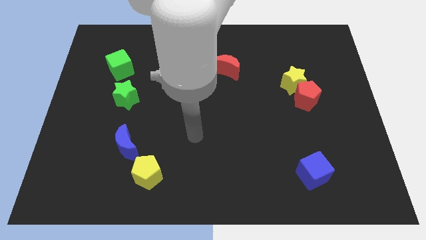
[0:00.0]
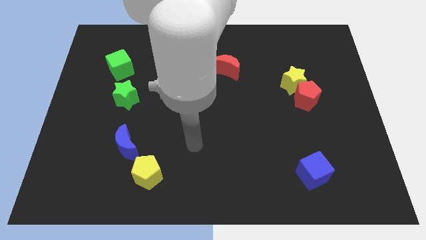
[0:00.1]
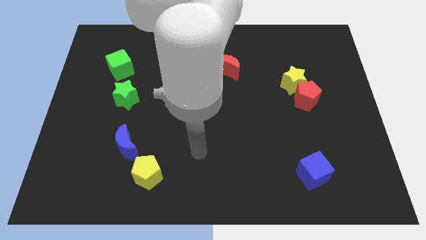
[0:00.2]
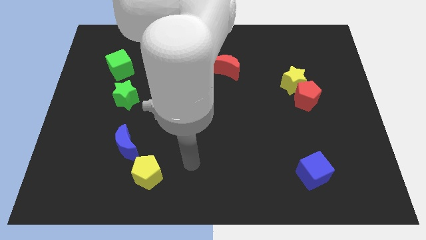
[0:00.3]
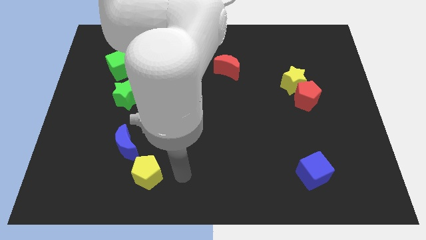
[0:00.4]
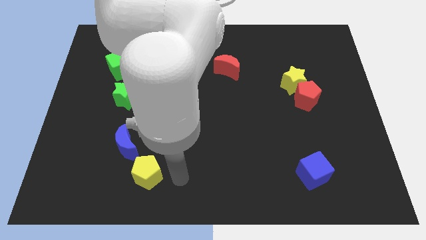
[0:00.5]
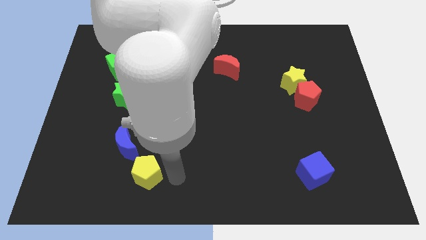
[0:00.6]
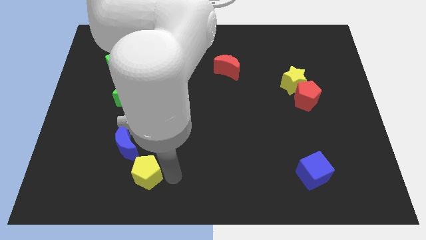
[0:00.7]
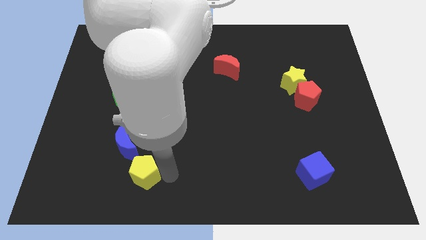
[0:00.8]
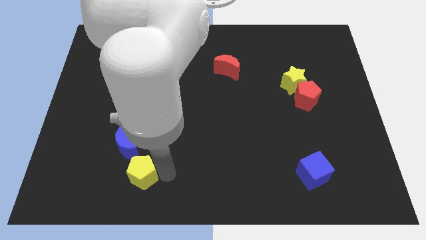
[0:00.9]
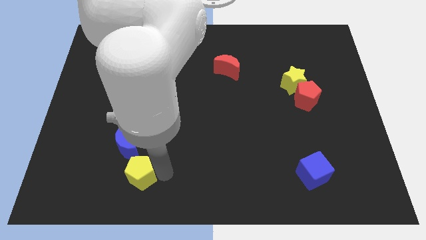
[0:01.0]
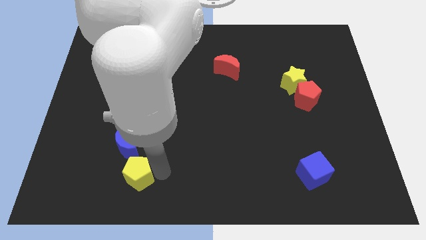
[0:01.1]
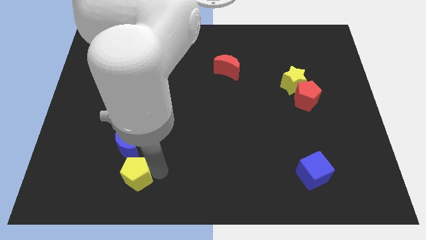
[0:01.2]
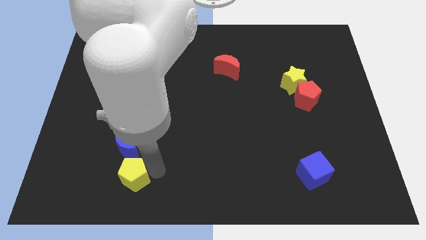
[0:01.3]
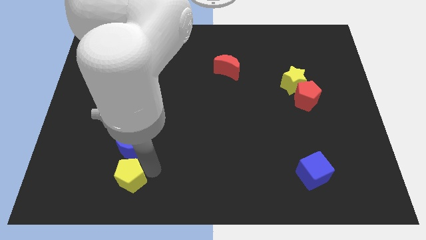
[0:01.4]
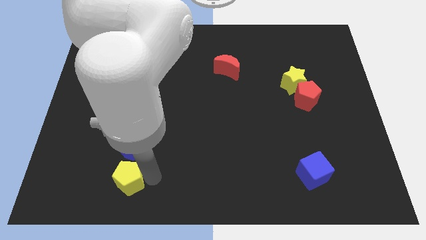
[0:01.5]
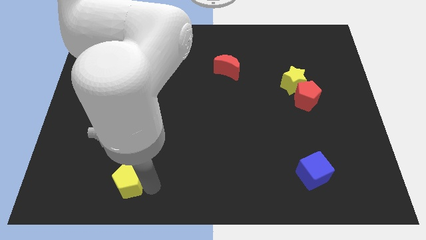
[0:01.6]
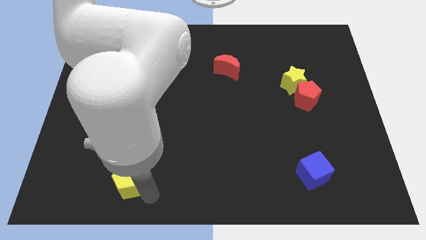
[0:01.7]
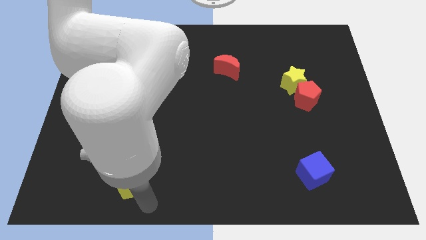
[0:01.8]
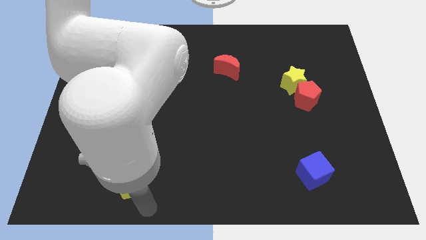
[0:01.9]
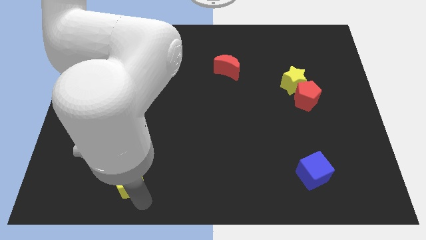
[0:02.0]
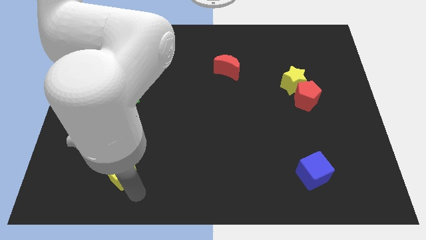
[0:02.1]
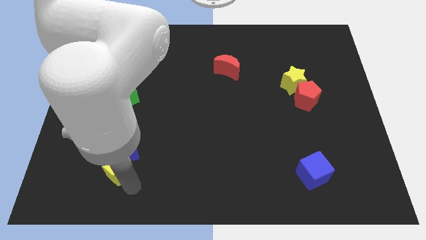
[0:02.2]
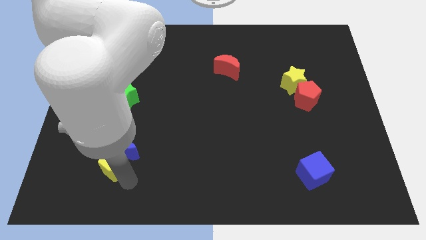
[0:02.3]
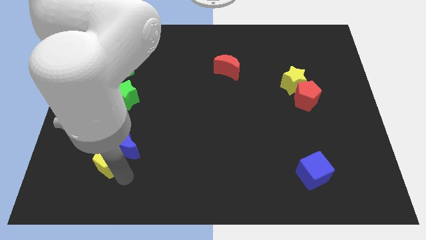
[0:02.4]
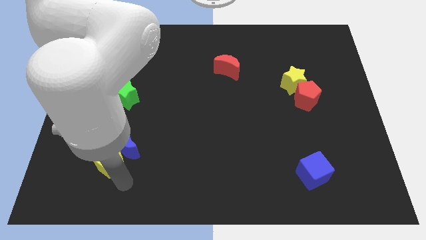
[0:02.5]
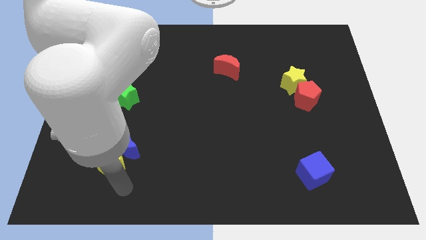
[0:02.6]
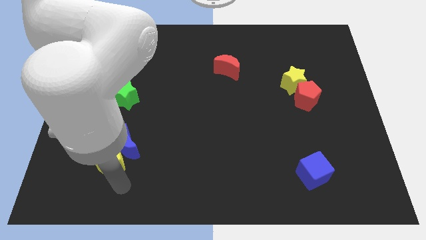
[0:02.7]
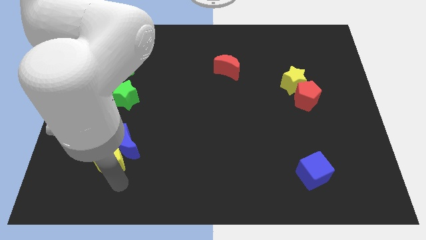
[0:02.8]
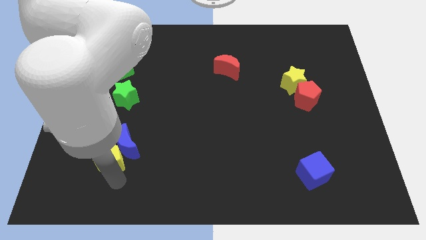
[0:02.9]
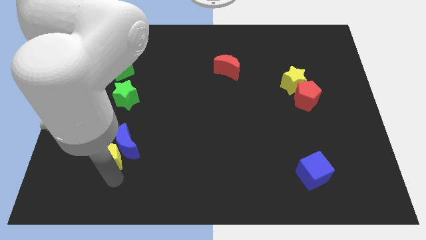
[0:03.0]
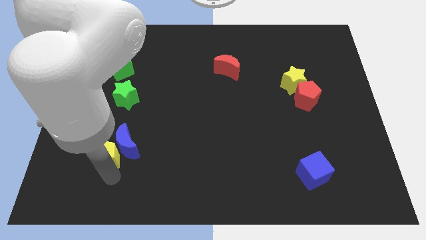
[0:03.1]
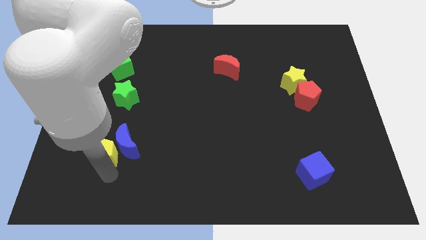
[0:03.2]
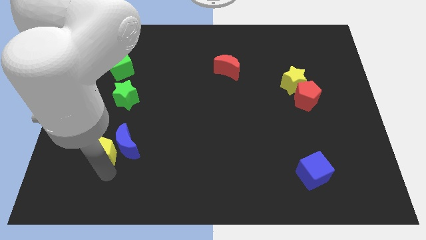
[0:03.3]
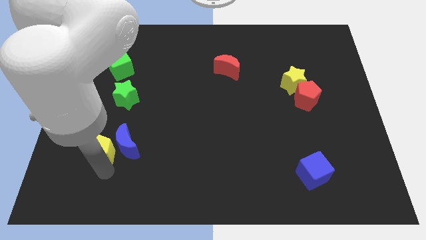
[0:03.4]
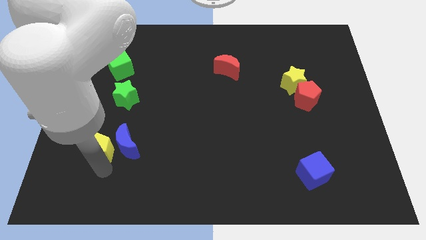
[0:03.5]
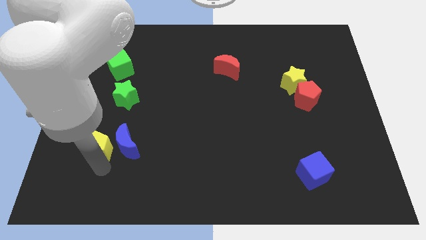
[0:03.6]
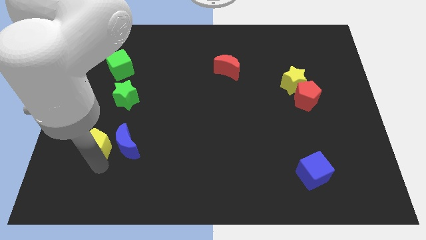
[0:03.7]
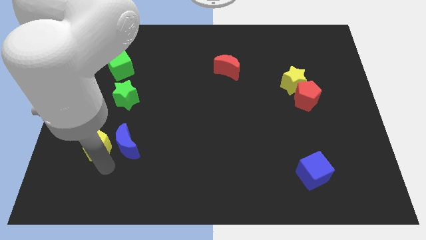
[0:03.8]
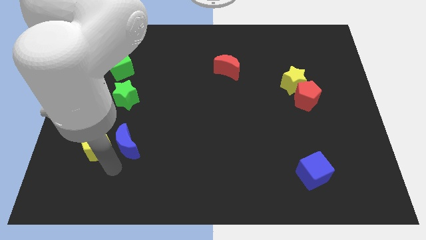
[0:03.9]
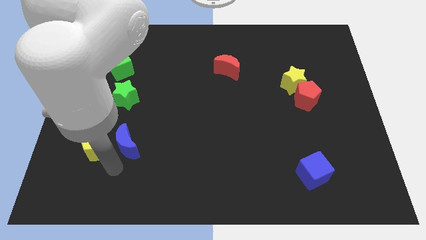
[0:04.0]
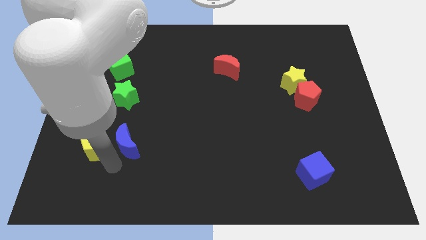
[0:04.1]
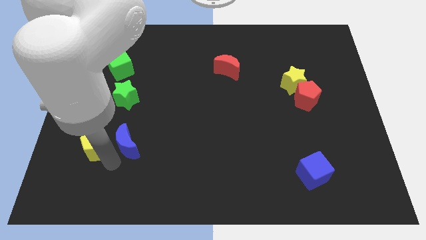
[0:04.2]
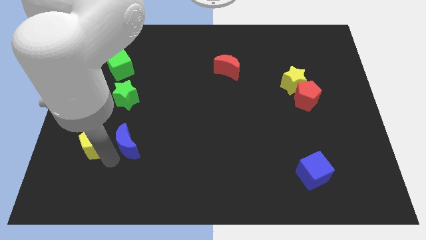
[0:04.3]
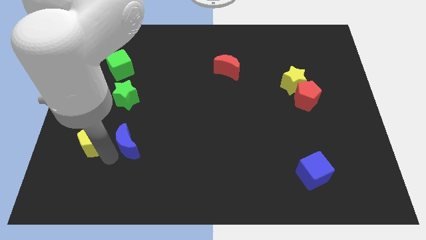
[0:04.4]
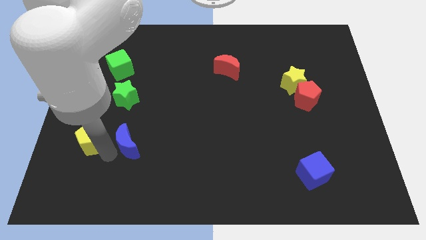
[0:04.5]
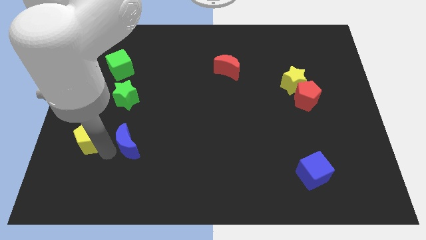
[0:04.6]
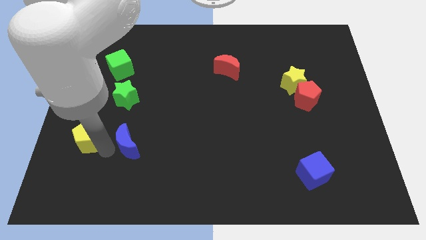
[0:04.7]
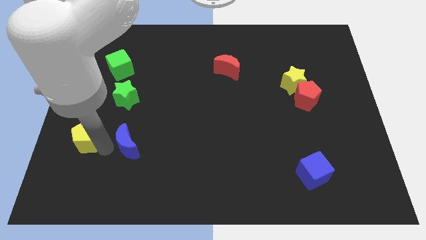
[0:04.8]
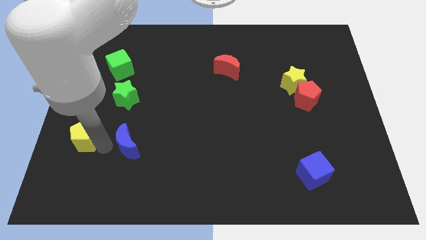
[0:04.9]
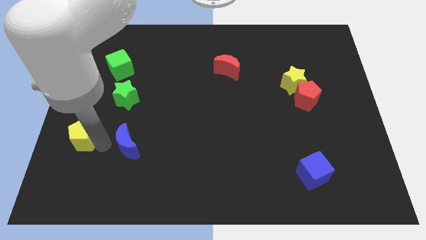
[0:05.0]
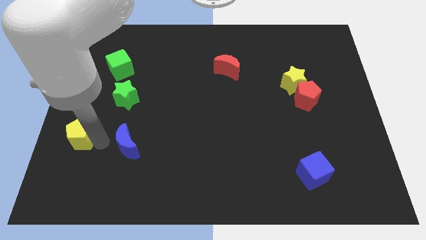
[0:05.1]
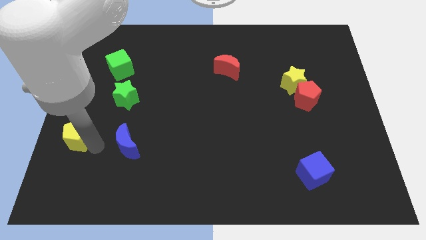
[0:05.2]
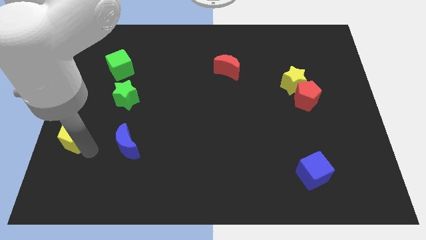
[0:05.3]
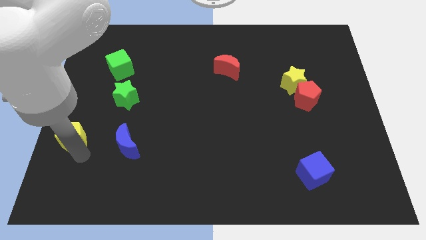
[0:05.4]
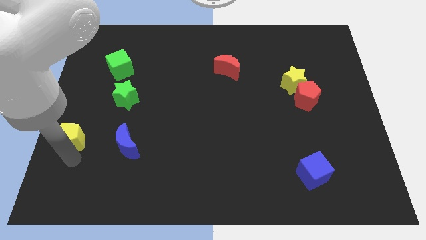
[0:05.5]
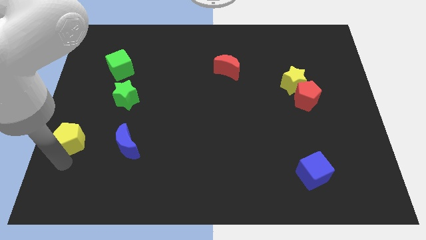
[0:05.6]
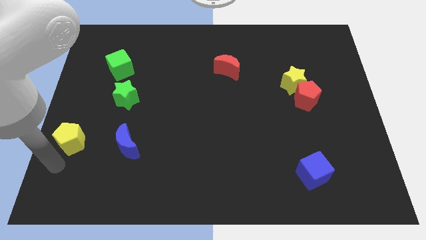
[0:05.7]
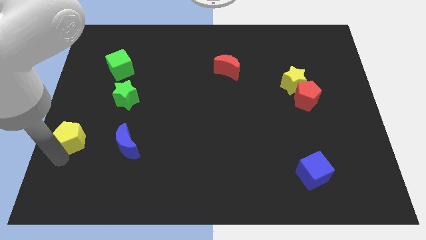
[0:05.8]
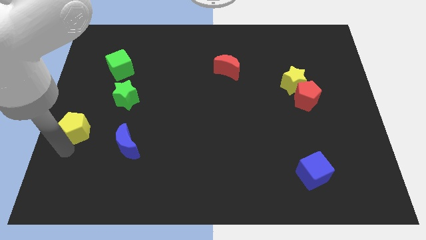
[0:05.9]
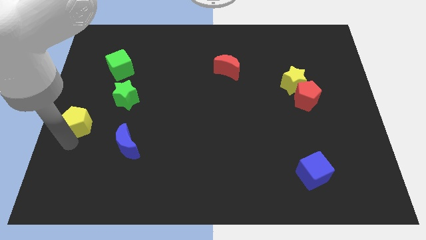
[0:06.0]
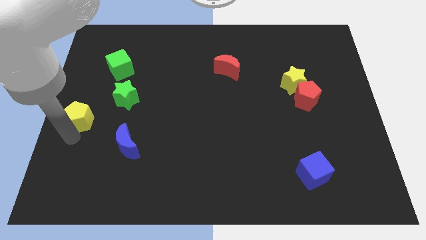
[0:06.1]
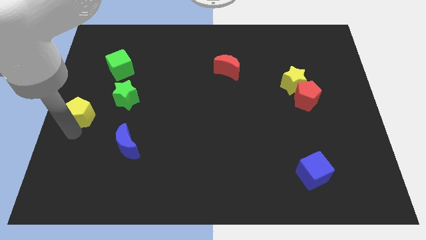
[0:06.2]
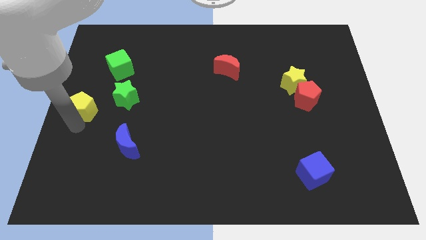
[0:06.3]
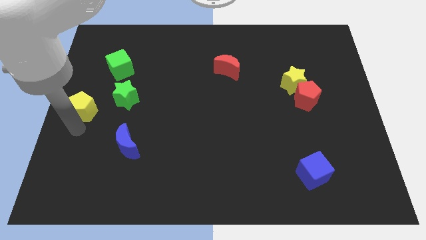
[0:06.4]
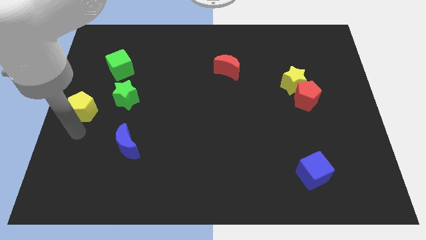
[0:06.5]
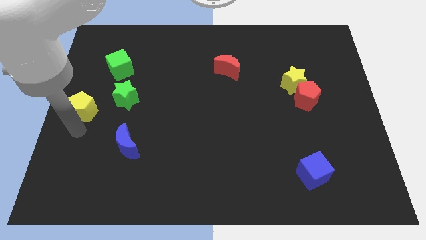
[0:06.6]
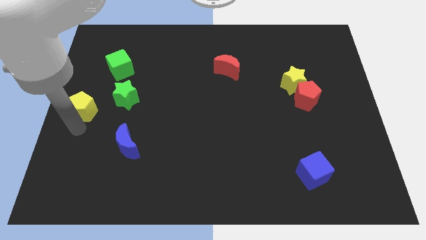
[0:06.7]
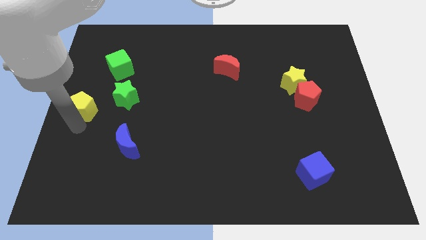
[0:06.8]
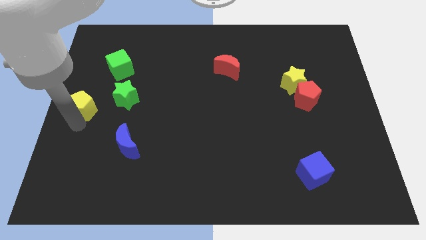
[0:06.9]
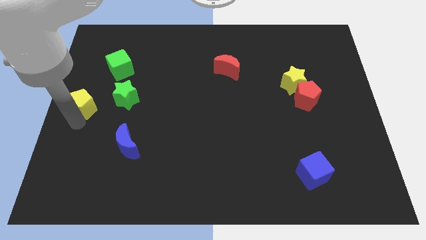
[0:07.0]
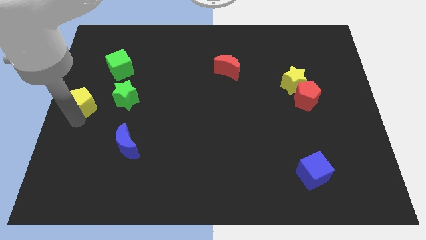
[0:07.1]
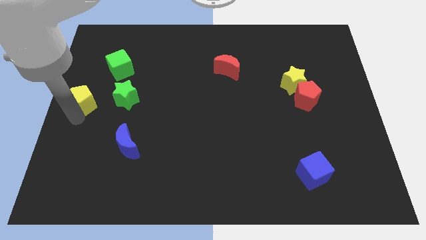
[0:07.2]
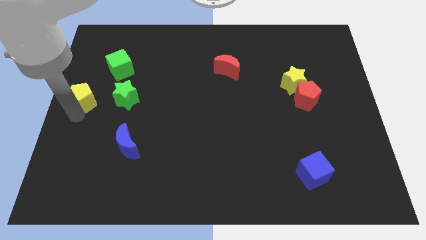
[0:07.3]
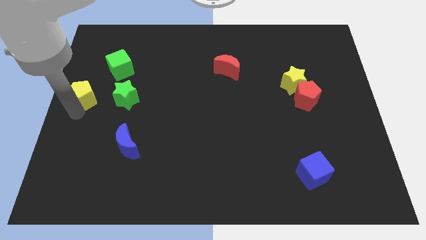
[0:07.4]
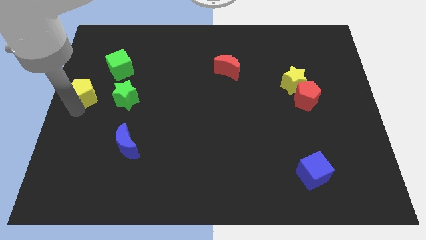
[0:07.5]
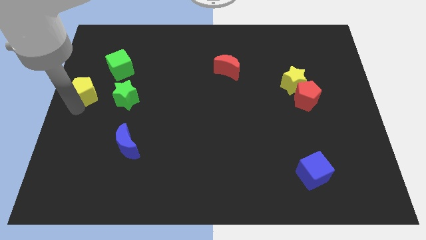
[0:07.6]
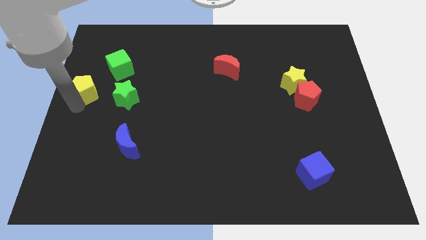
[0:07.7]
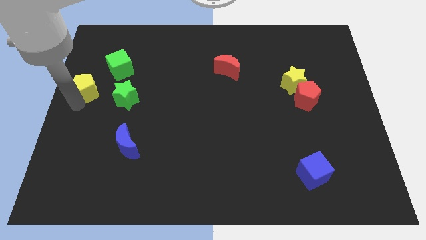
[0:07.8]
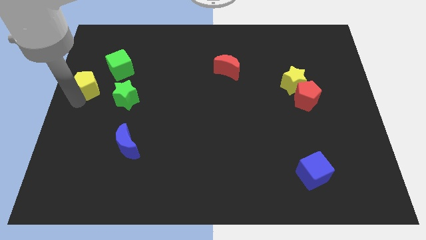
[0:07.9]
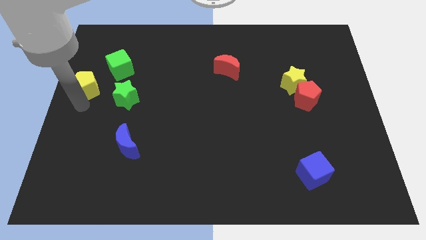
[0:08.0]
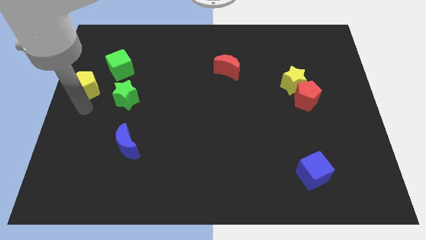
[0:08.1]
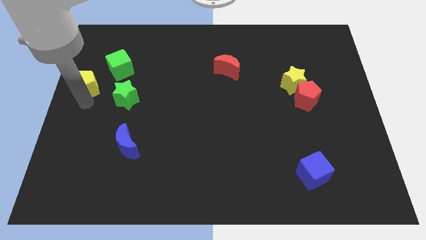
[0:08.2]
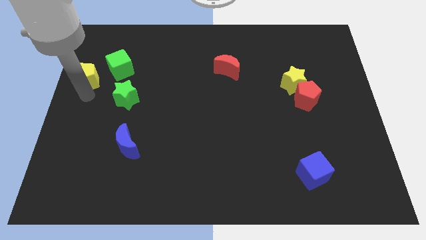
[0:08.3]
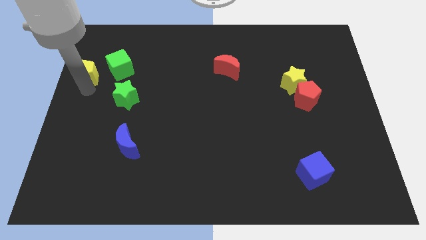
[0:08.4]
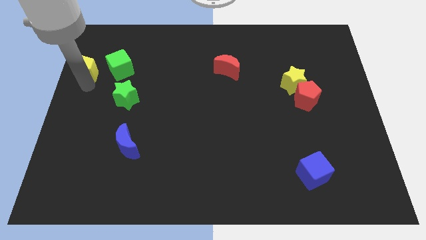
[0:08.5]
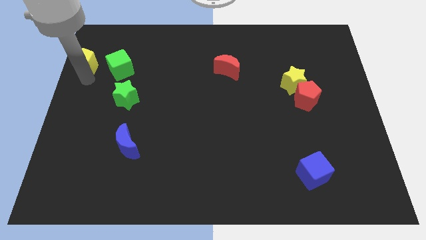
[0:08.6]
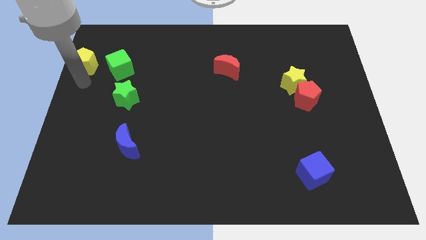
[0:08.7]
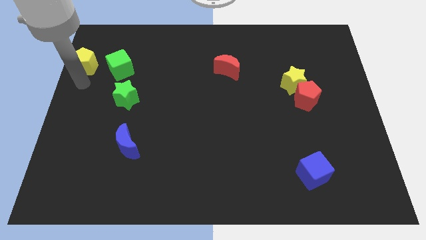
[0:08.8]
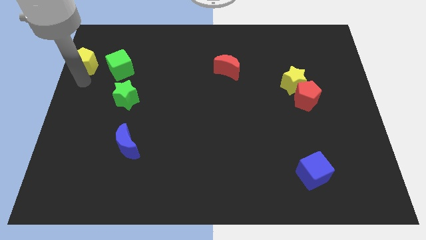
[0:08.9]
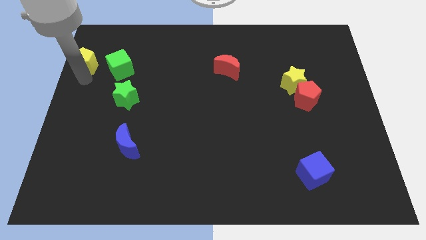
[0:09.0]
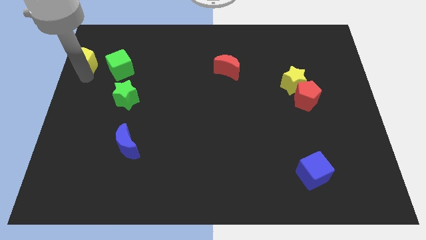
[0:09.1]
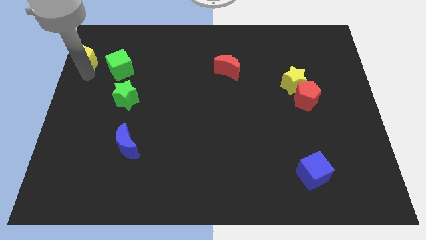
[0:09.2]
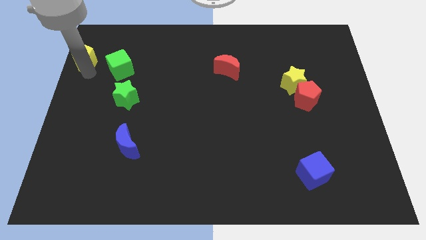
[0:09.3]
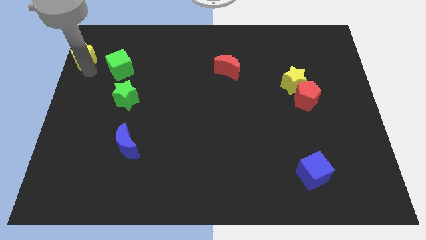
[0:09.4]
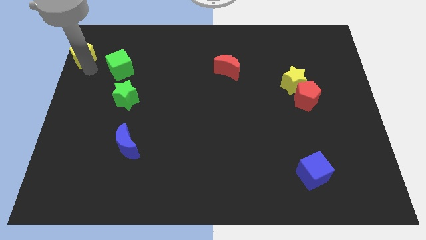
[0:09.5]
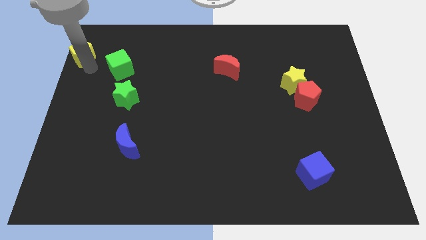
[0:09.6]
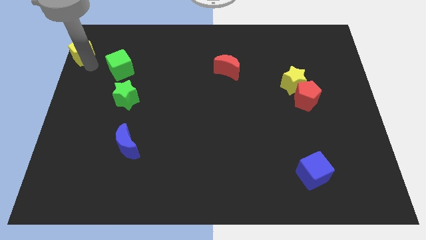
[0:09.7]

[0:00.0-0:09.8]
put the yellow pentagon to the top left of the board
